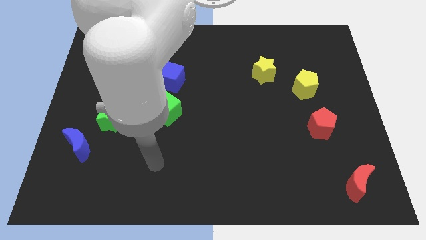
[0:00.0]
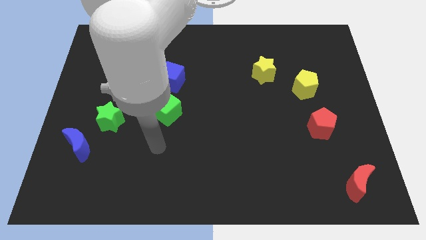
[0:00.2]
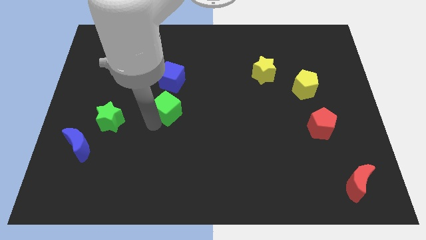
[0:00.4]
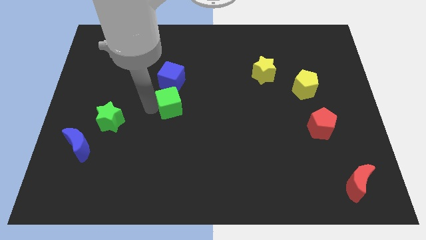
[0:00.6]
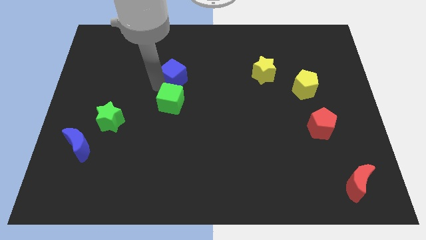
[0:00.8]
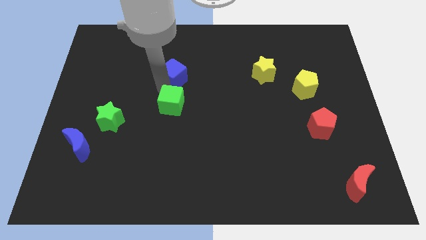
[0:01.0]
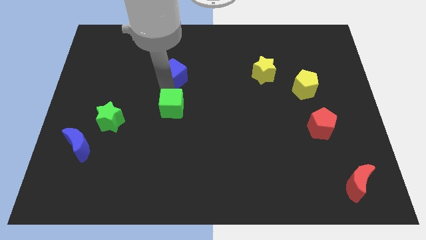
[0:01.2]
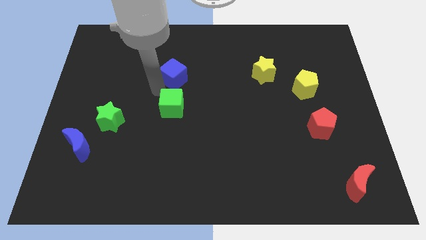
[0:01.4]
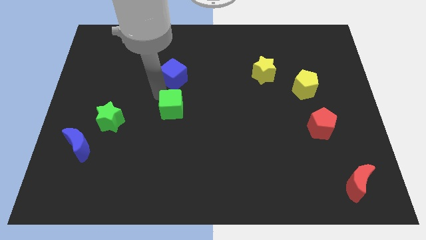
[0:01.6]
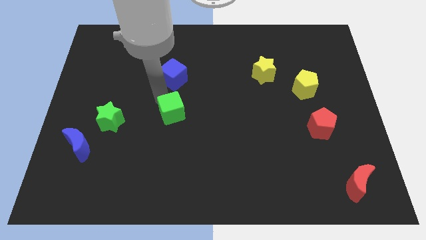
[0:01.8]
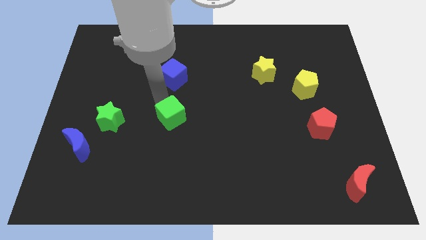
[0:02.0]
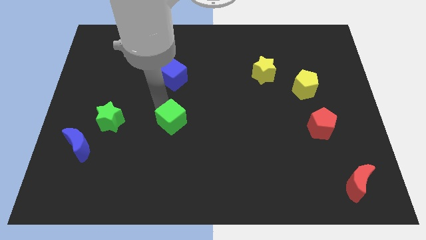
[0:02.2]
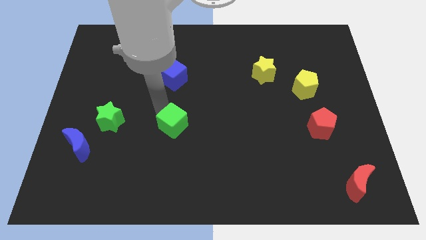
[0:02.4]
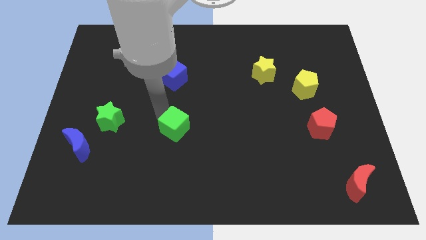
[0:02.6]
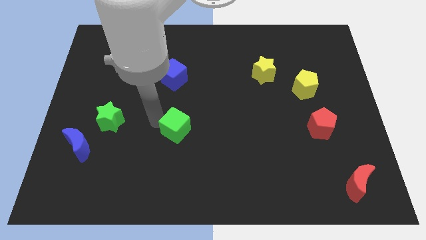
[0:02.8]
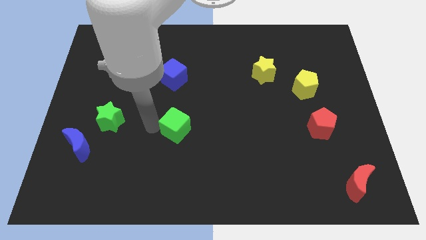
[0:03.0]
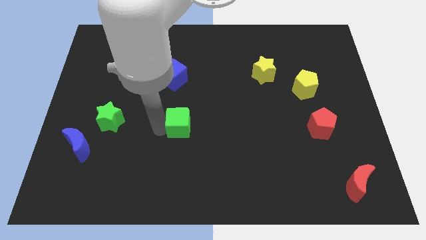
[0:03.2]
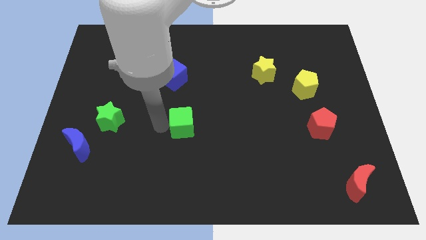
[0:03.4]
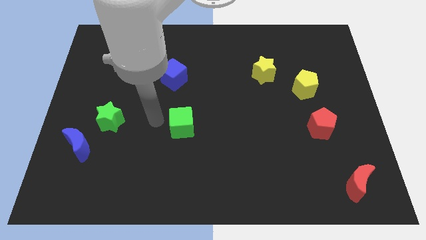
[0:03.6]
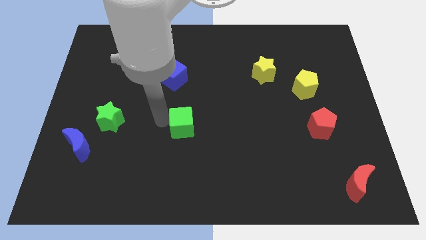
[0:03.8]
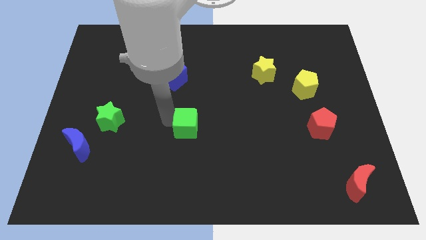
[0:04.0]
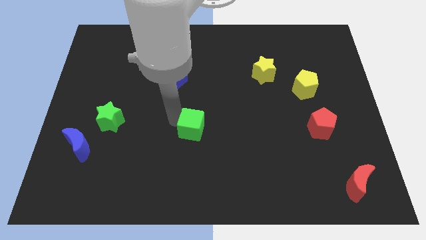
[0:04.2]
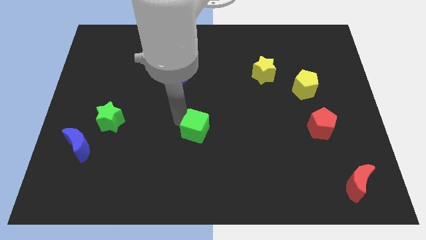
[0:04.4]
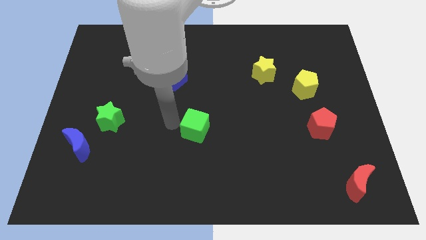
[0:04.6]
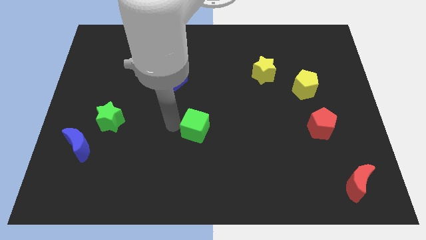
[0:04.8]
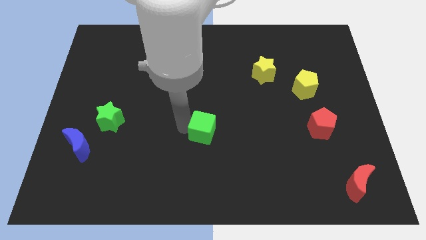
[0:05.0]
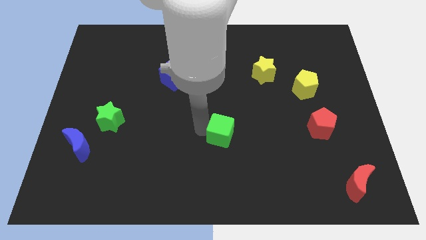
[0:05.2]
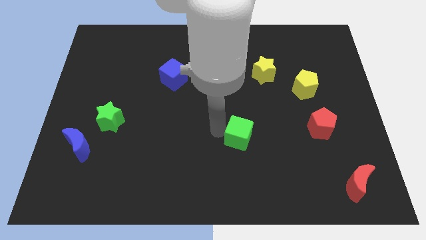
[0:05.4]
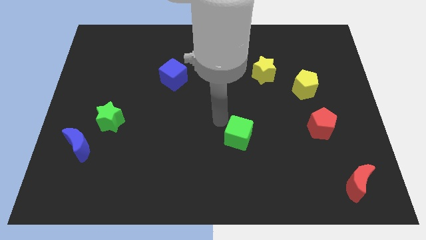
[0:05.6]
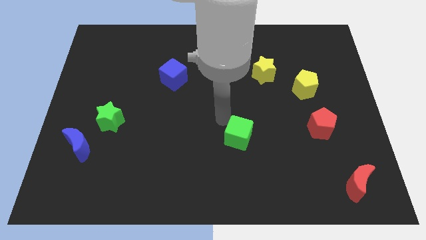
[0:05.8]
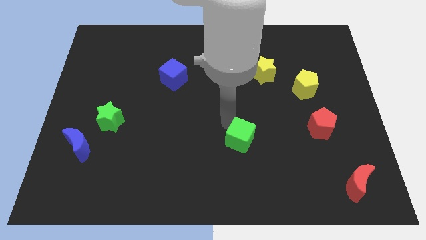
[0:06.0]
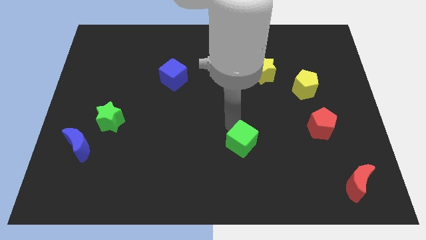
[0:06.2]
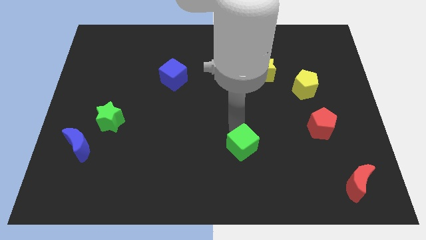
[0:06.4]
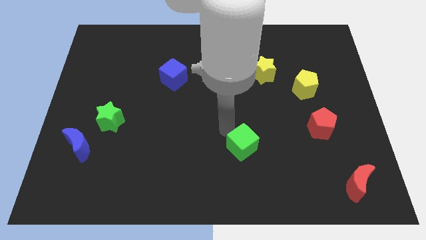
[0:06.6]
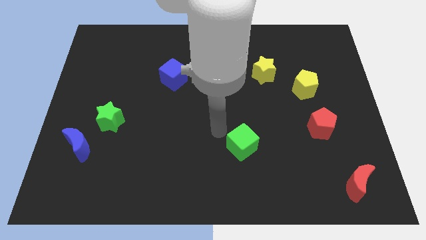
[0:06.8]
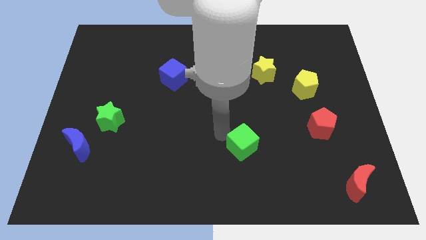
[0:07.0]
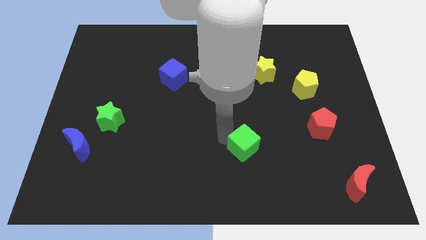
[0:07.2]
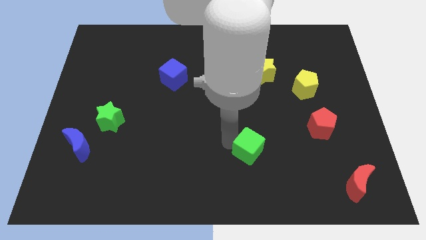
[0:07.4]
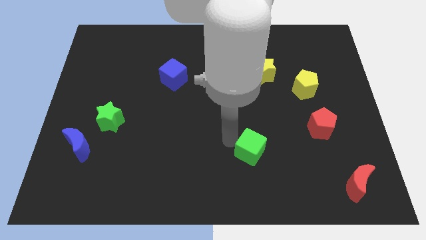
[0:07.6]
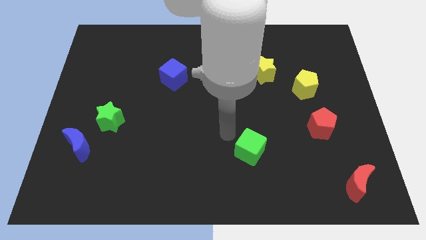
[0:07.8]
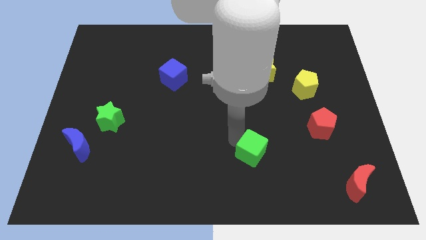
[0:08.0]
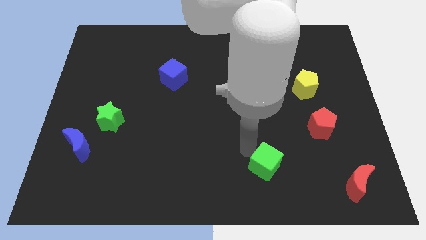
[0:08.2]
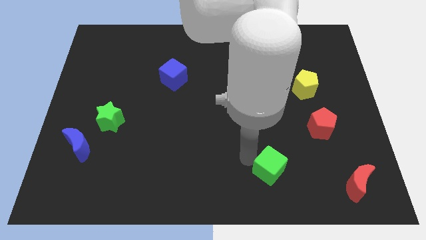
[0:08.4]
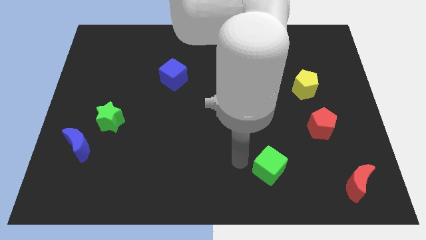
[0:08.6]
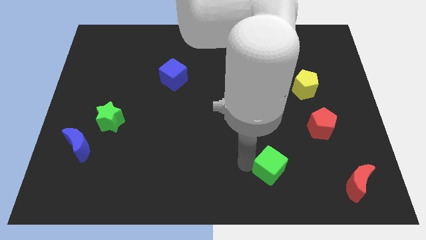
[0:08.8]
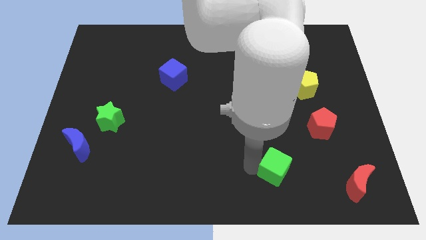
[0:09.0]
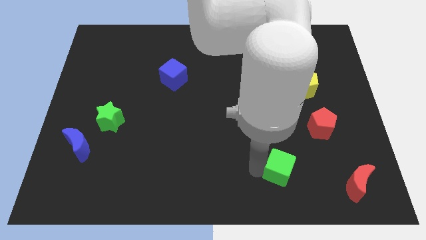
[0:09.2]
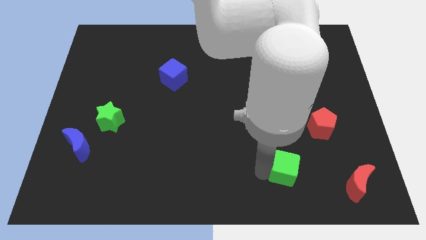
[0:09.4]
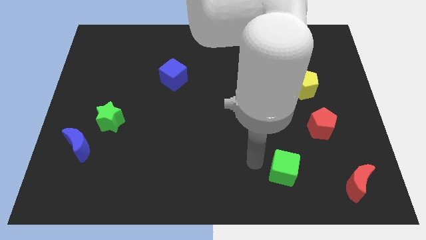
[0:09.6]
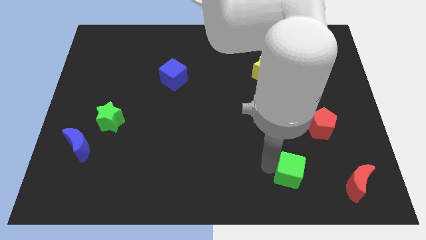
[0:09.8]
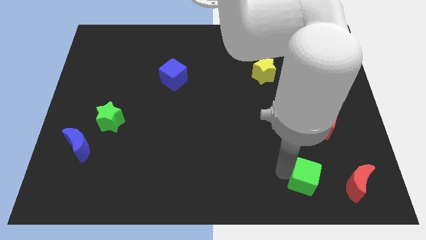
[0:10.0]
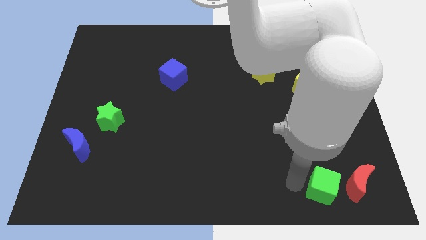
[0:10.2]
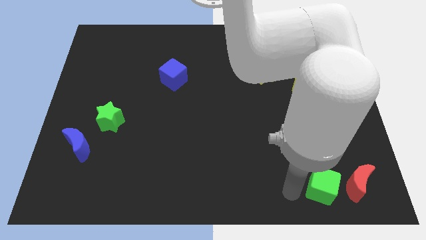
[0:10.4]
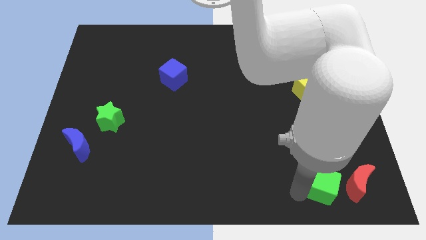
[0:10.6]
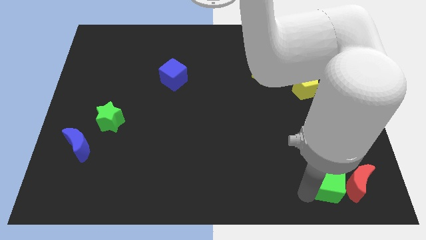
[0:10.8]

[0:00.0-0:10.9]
slide the green cube close to the red moon

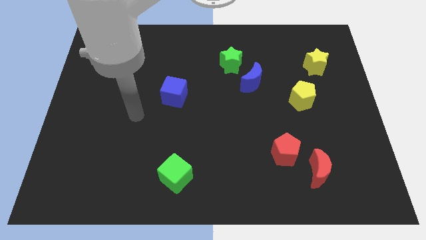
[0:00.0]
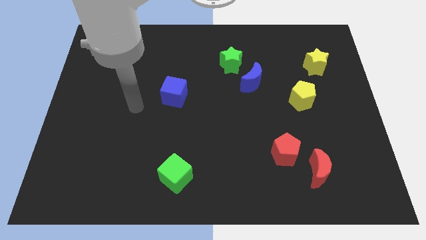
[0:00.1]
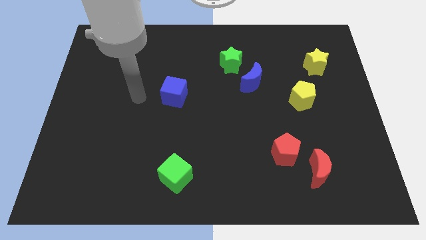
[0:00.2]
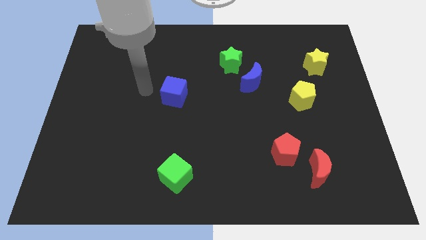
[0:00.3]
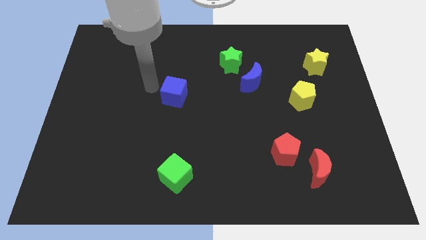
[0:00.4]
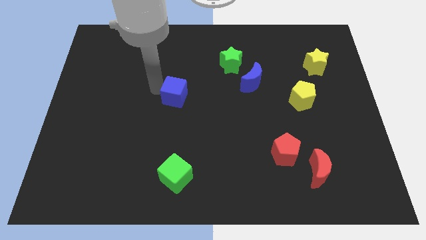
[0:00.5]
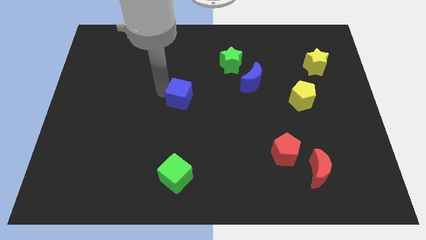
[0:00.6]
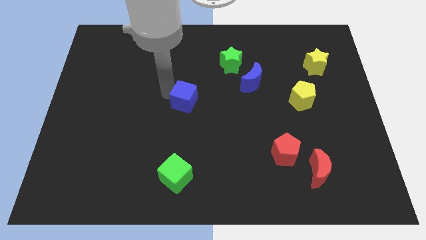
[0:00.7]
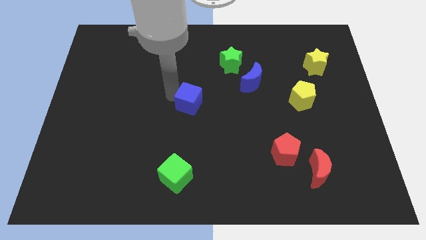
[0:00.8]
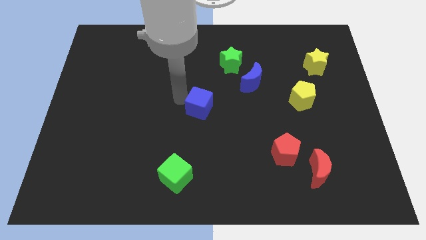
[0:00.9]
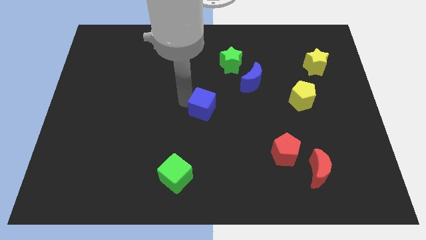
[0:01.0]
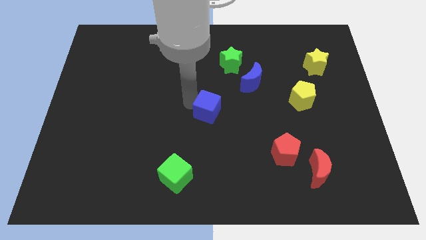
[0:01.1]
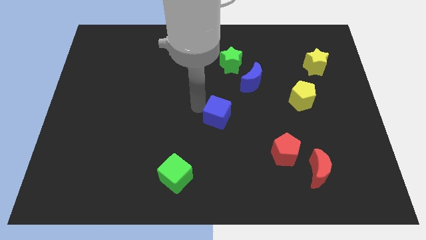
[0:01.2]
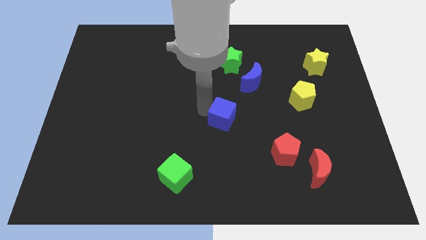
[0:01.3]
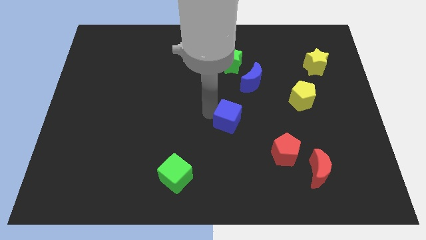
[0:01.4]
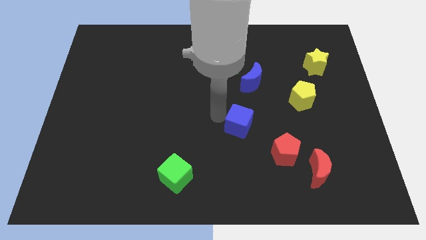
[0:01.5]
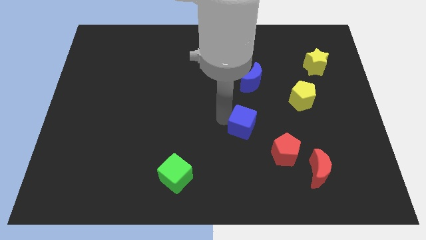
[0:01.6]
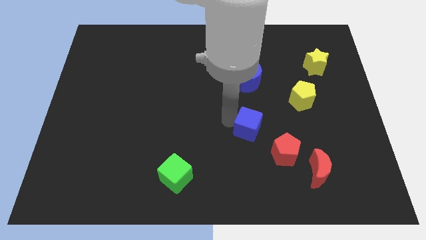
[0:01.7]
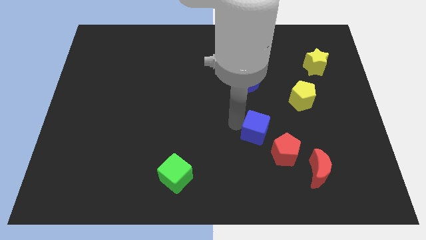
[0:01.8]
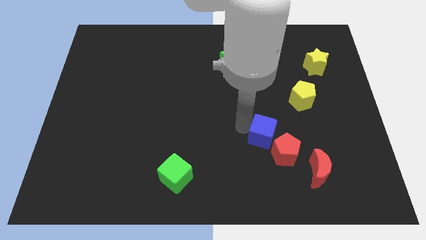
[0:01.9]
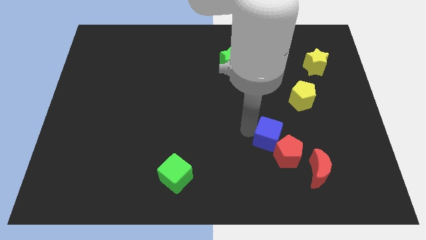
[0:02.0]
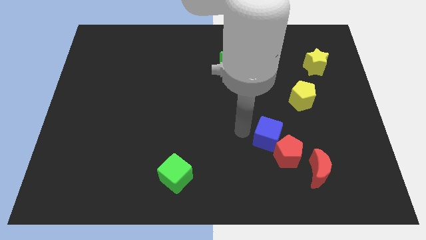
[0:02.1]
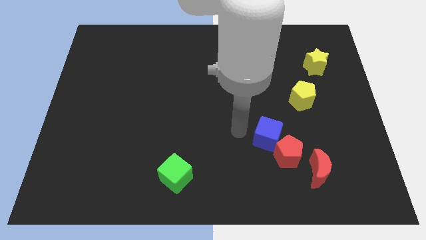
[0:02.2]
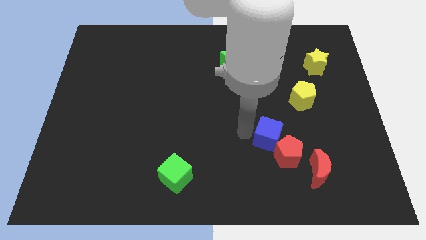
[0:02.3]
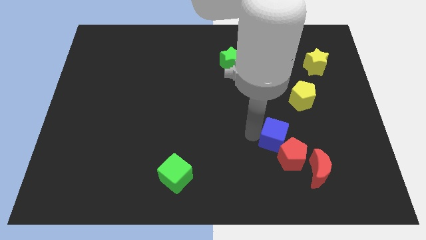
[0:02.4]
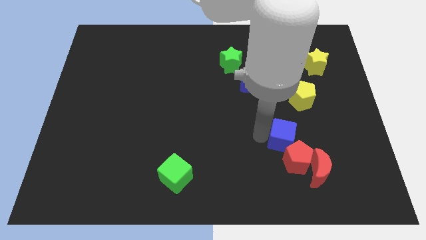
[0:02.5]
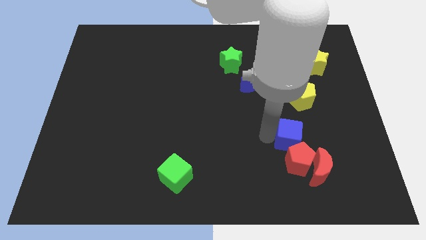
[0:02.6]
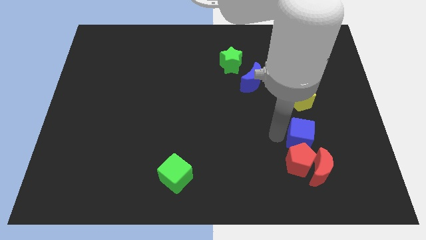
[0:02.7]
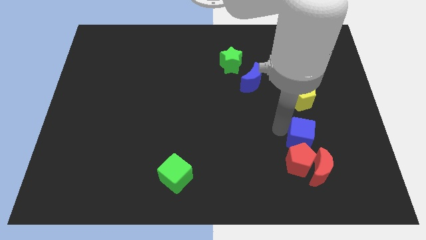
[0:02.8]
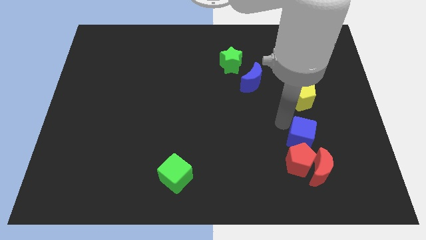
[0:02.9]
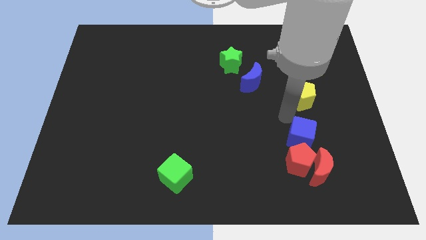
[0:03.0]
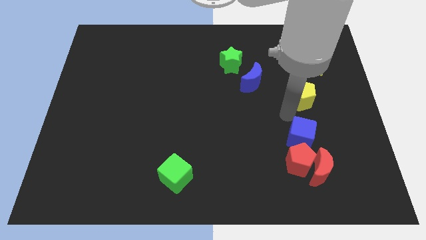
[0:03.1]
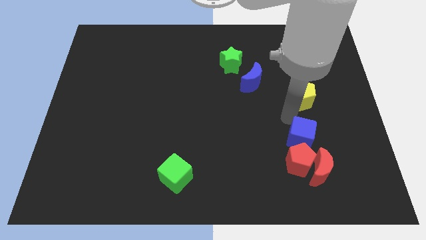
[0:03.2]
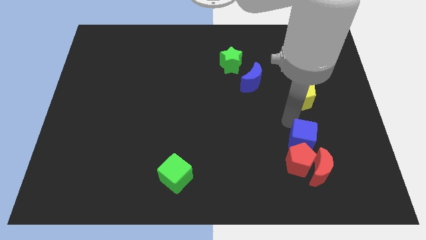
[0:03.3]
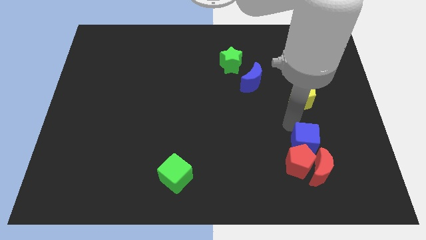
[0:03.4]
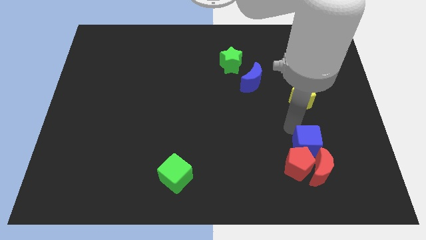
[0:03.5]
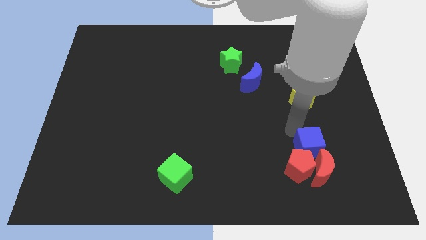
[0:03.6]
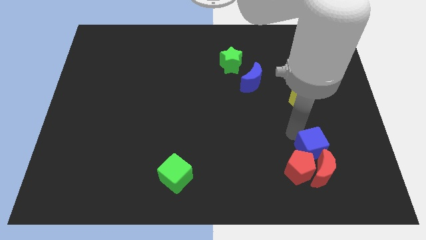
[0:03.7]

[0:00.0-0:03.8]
push the blue cube close to the red moon
